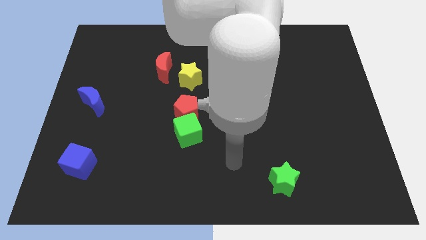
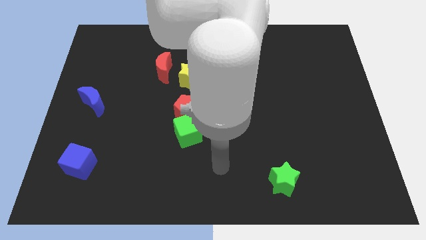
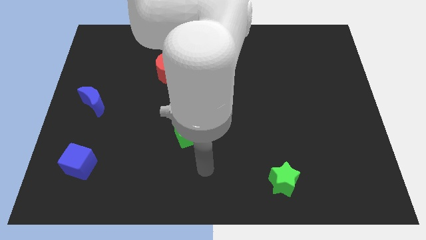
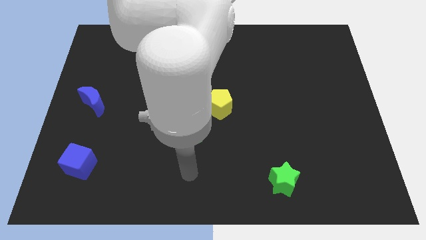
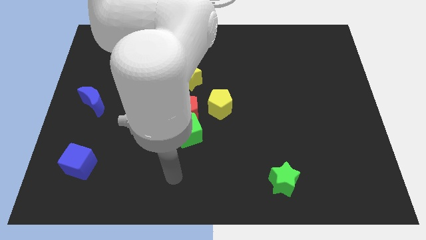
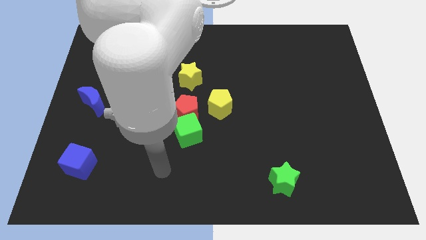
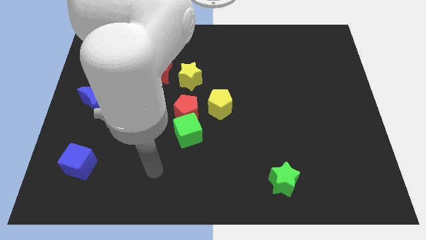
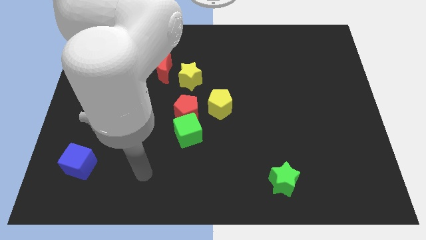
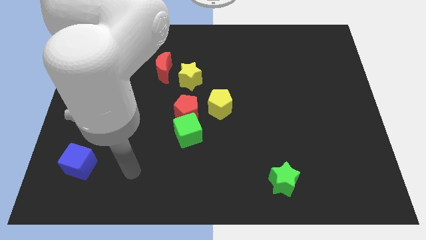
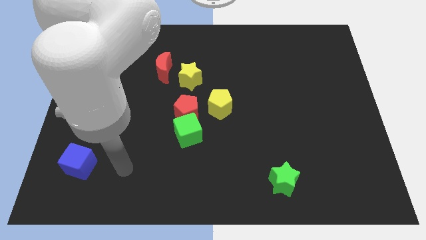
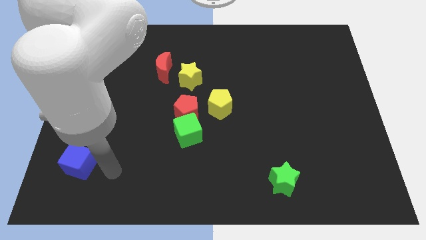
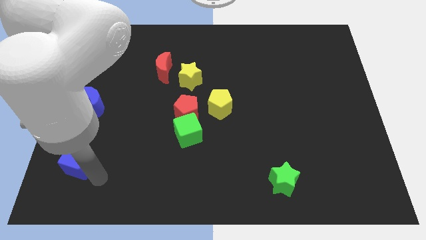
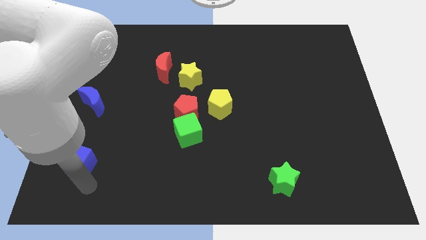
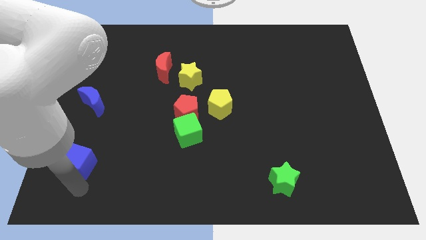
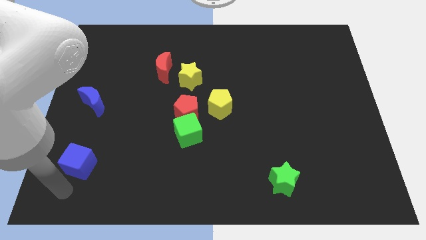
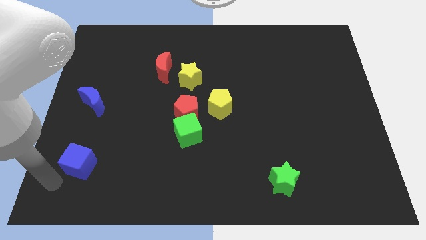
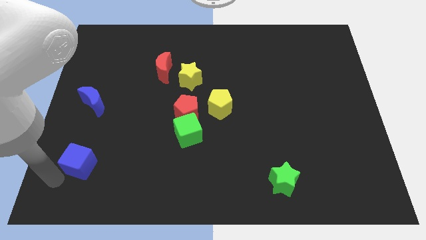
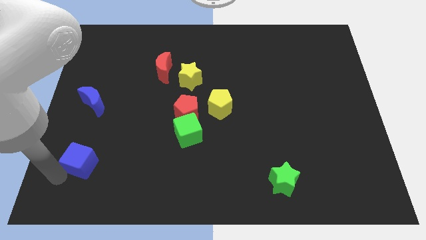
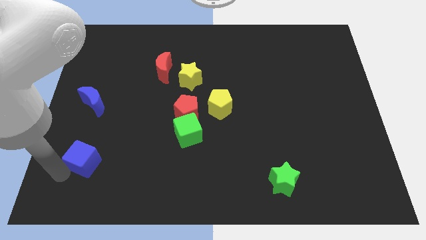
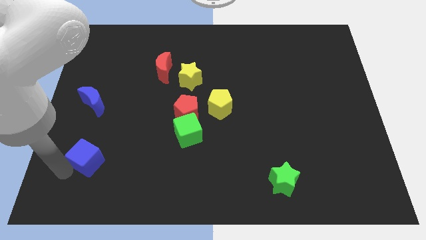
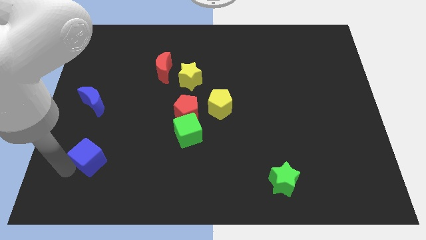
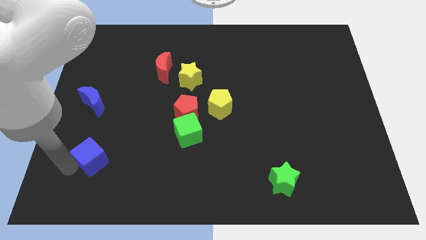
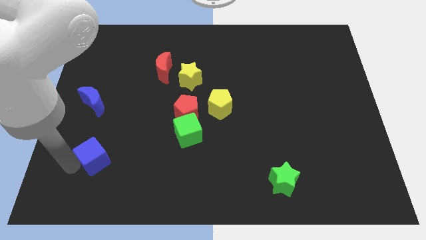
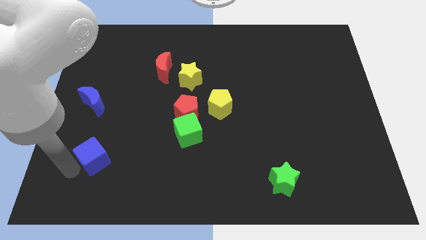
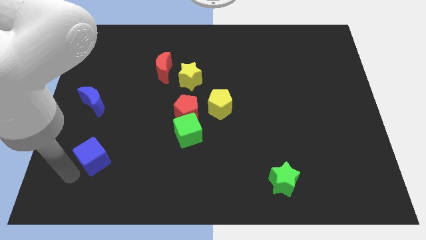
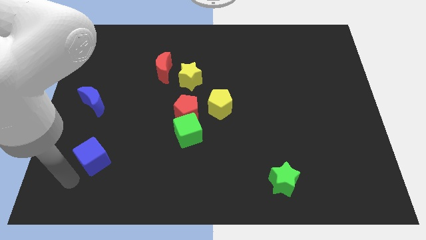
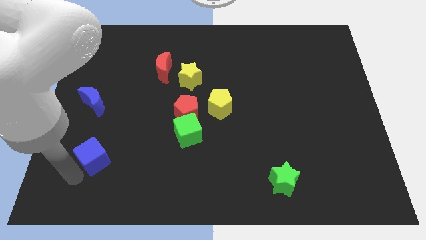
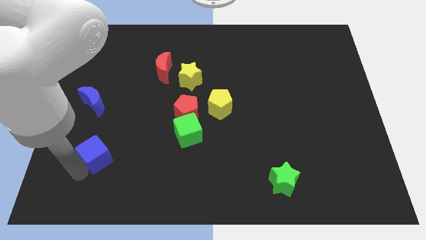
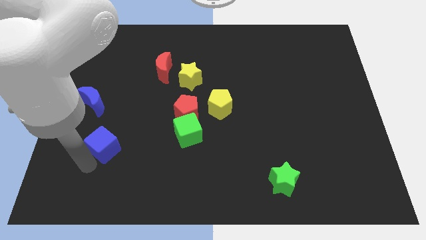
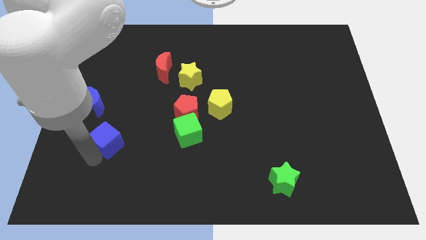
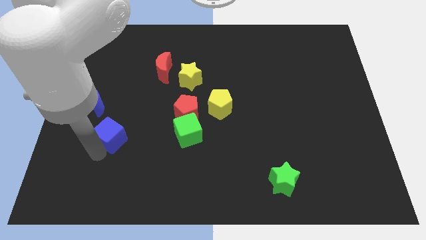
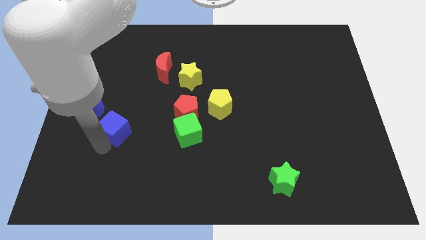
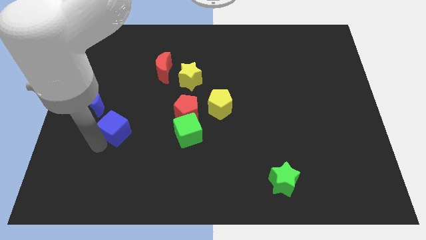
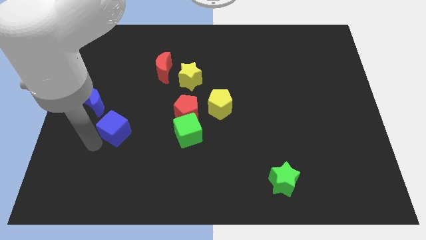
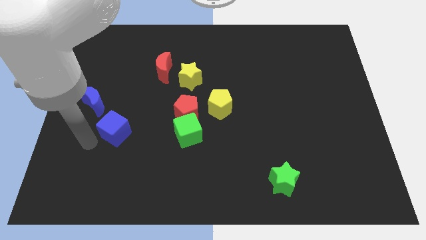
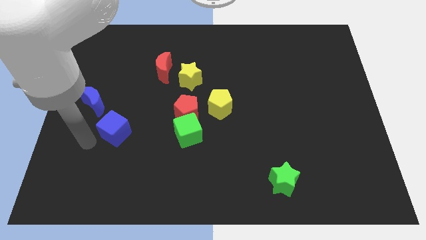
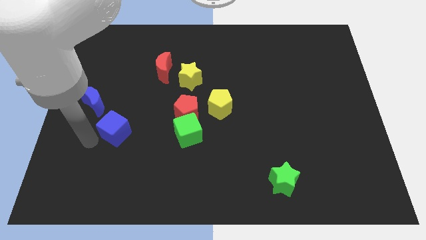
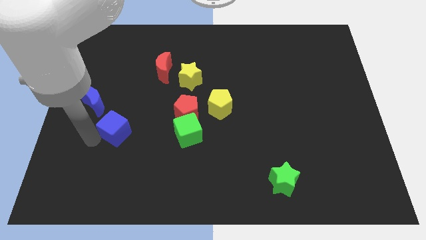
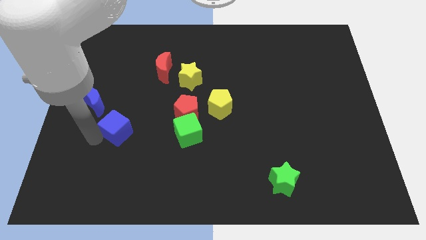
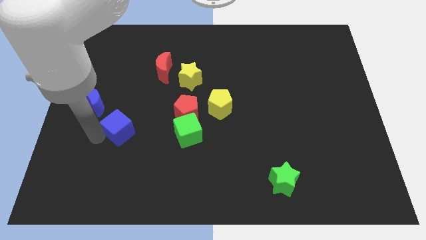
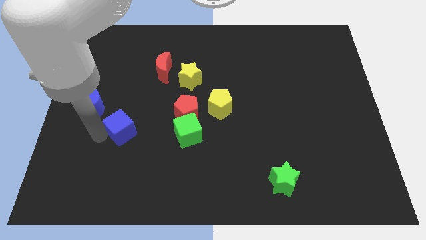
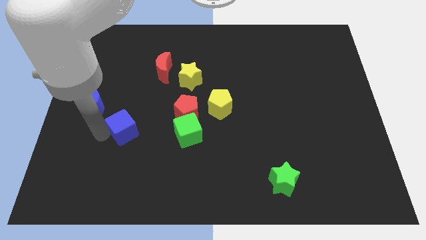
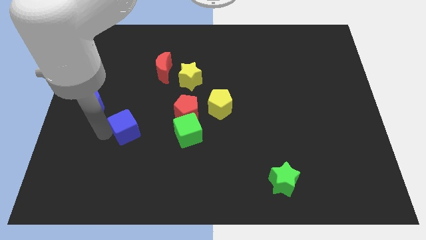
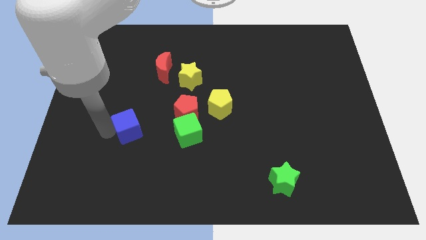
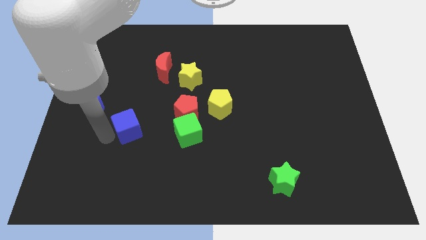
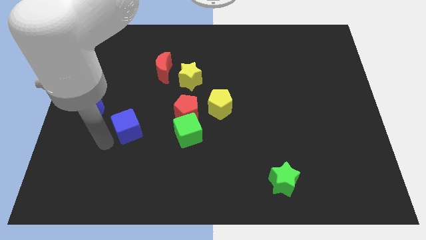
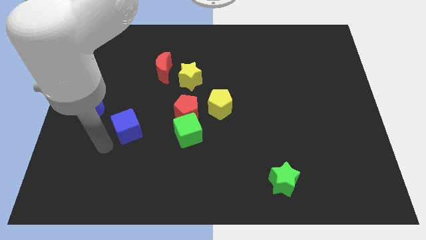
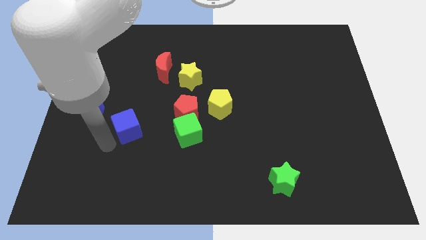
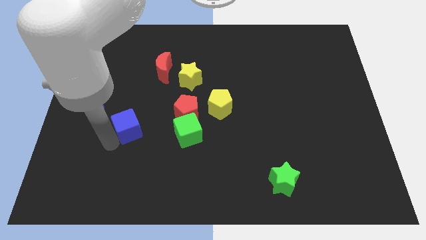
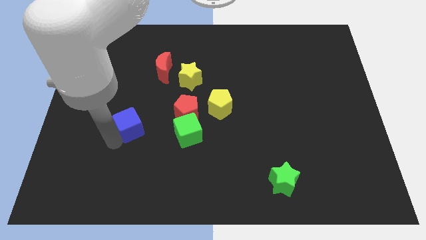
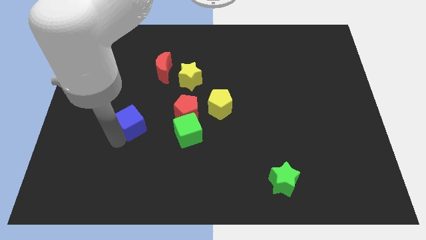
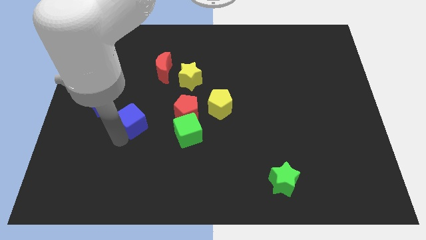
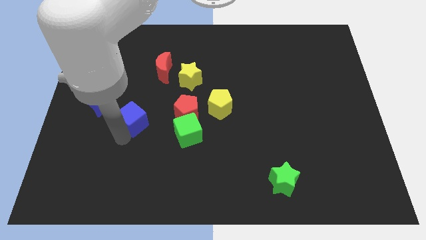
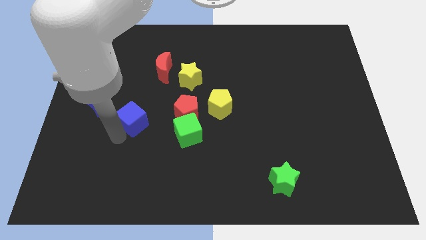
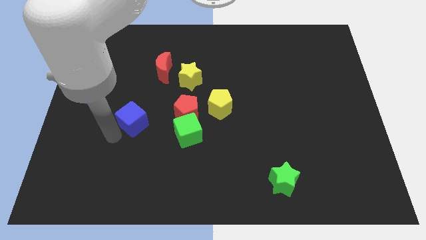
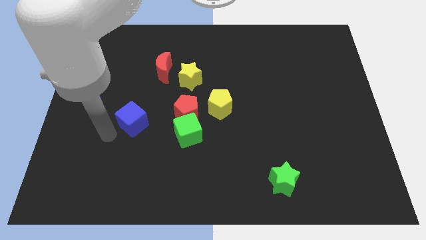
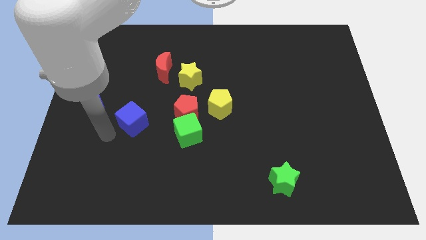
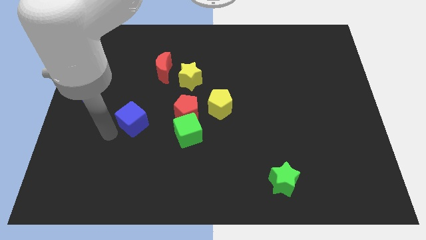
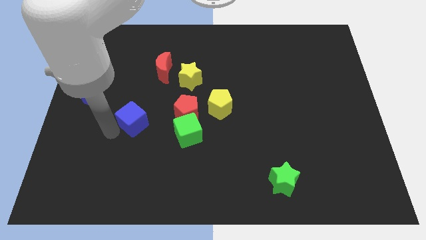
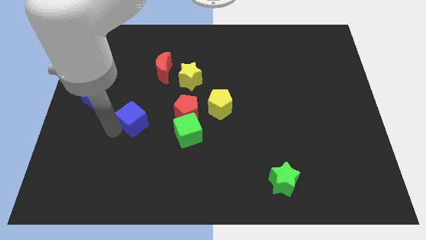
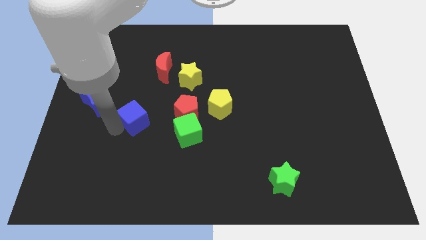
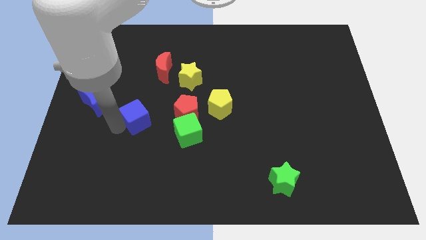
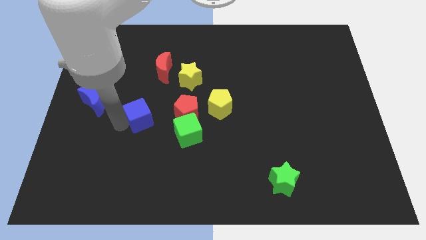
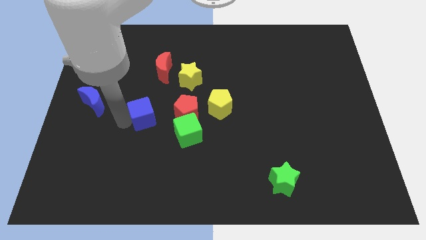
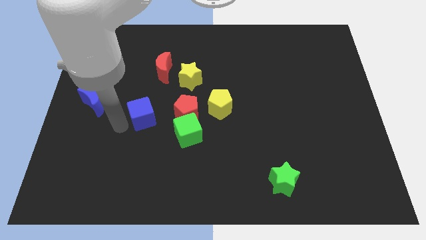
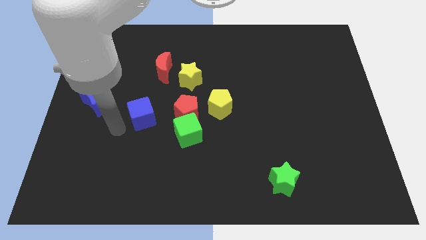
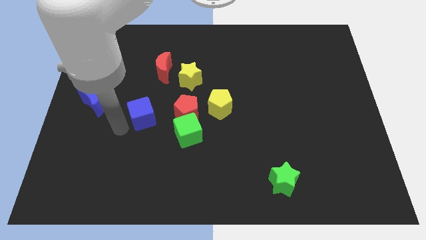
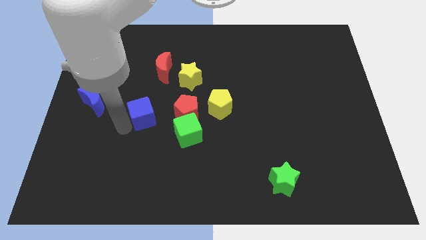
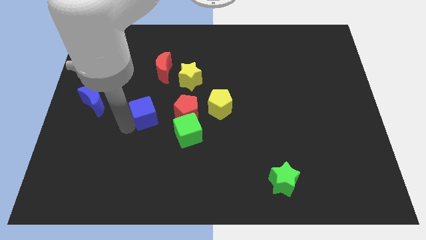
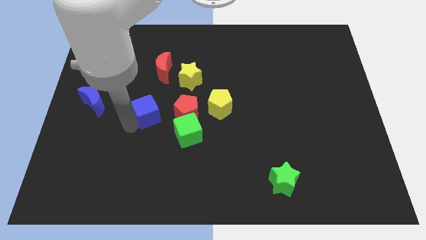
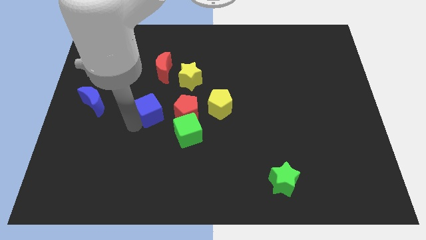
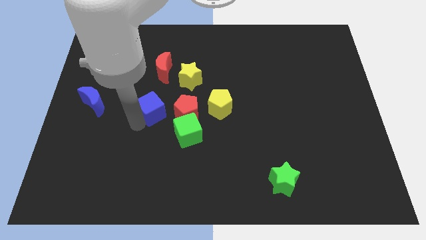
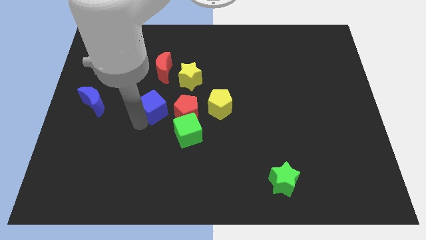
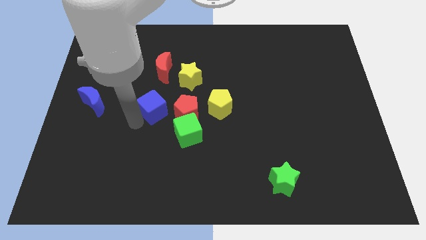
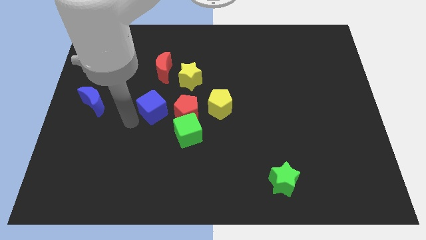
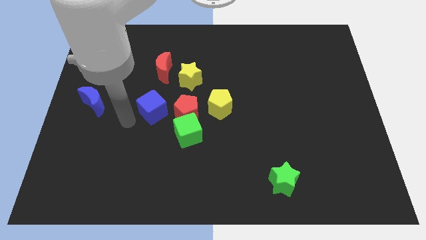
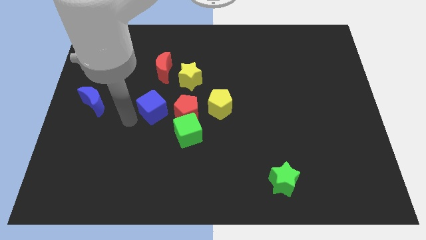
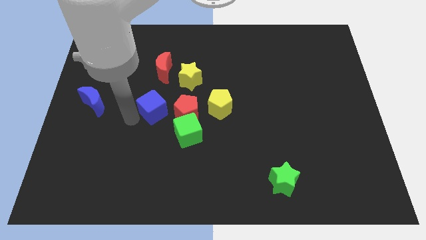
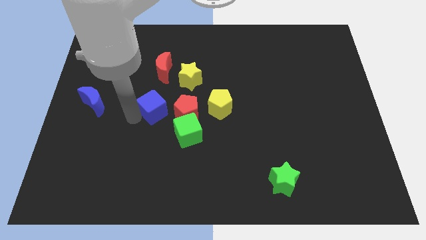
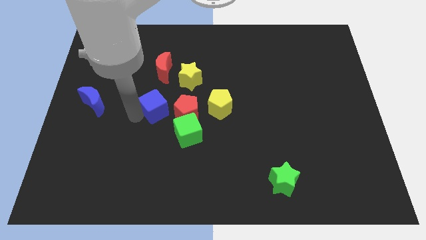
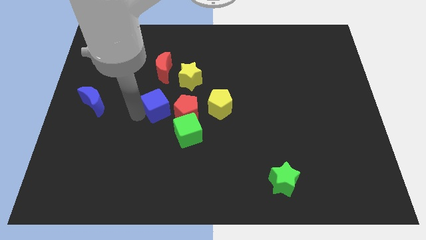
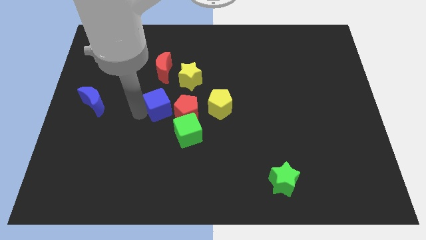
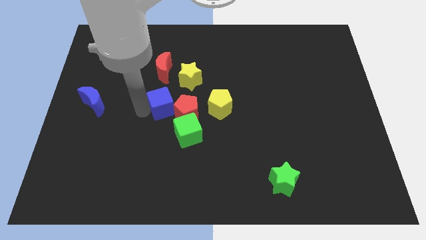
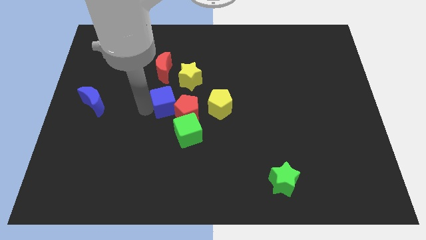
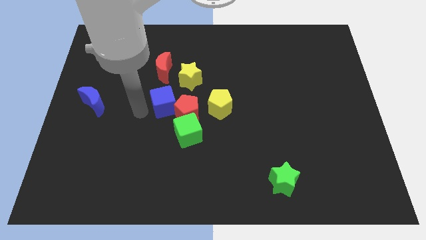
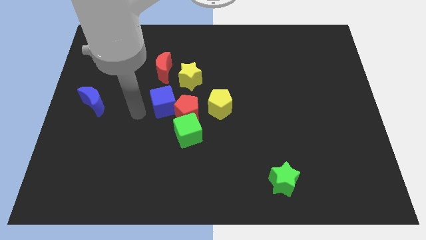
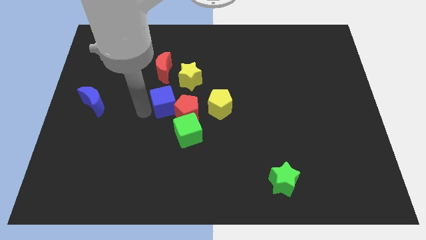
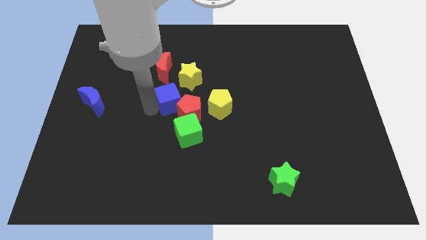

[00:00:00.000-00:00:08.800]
push the blue cube above the green cube

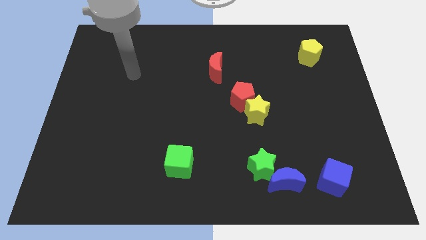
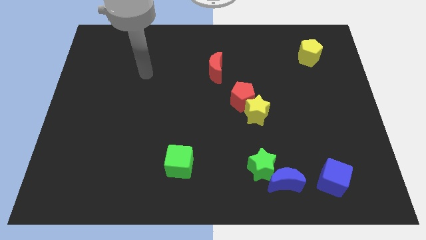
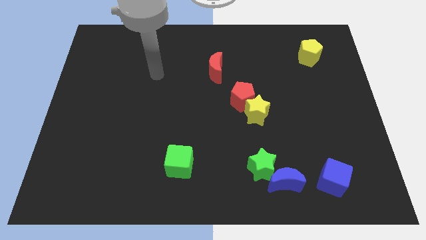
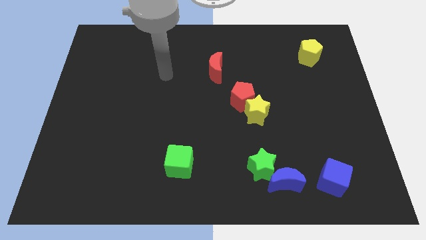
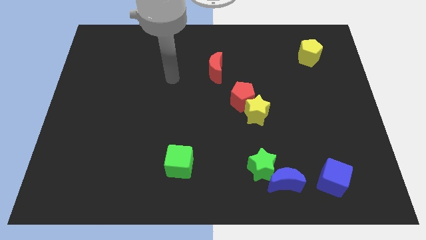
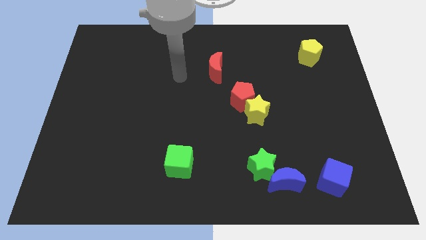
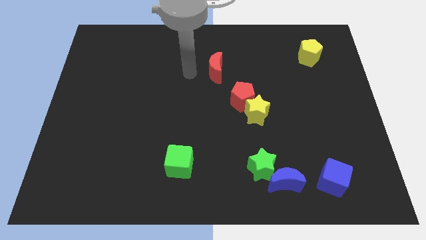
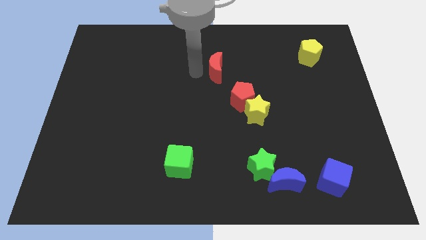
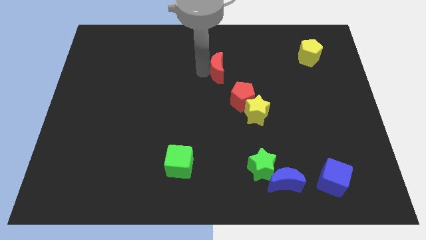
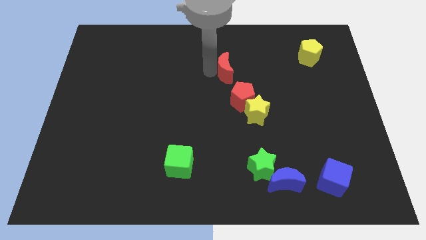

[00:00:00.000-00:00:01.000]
put the red moon to the top of the red pentagon
